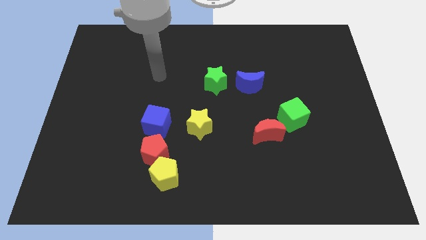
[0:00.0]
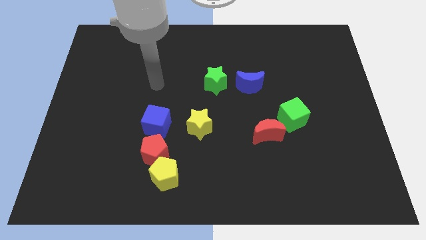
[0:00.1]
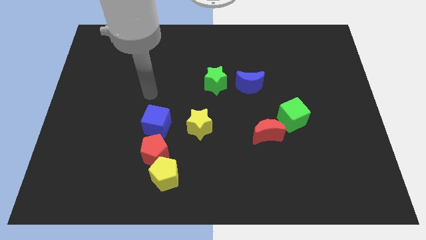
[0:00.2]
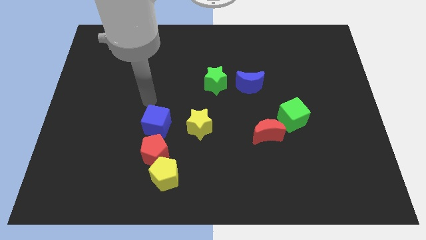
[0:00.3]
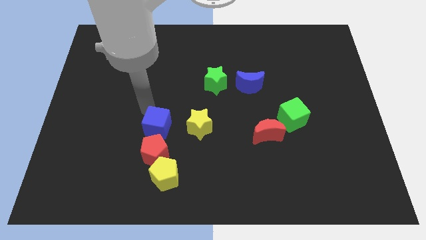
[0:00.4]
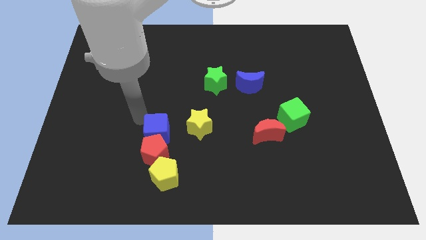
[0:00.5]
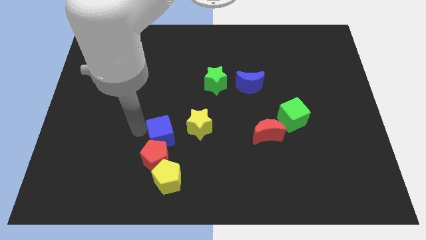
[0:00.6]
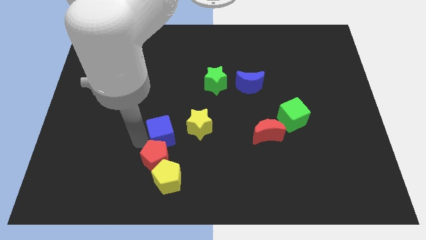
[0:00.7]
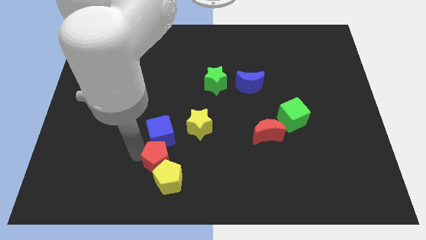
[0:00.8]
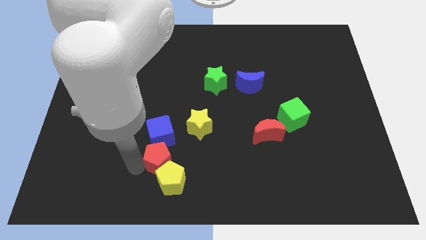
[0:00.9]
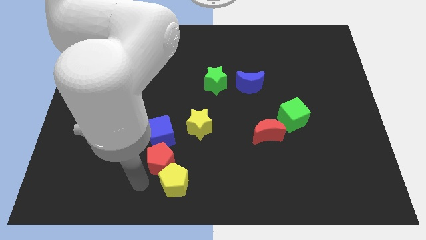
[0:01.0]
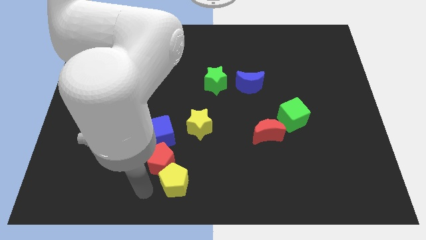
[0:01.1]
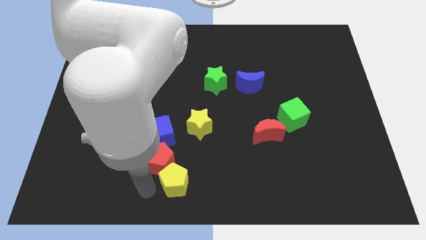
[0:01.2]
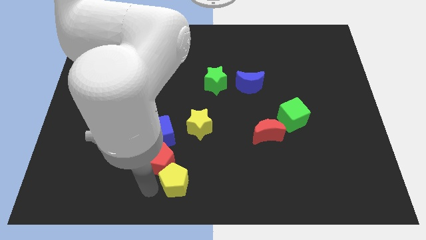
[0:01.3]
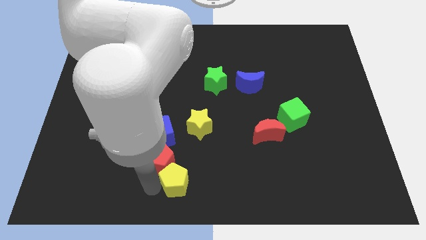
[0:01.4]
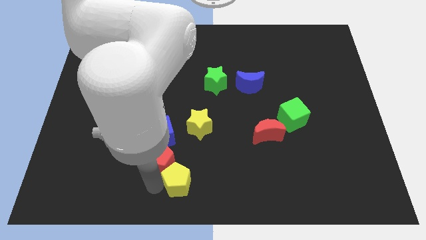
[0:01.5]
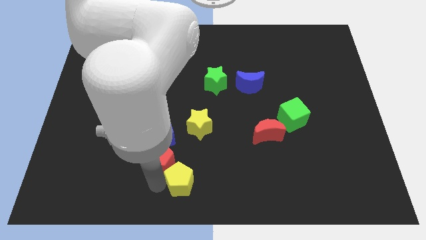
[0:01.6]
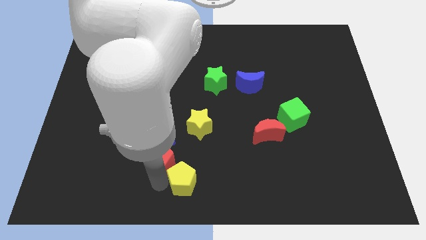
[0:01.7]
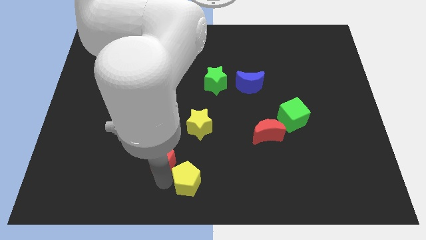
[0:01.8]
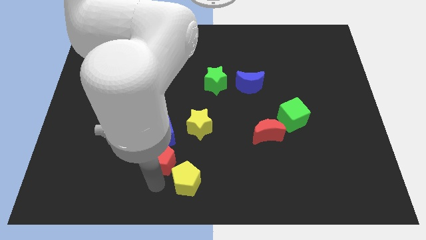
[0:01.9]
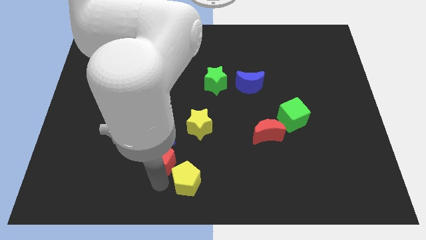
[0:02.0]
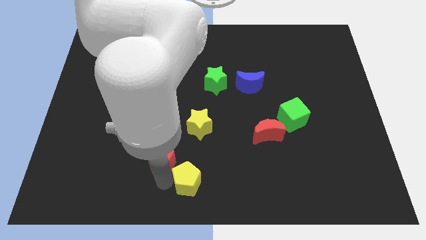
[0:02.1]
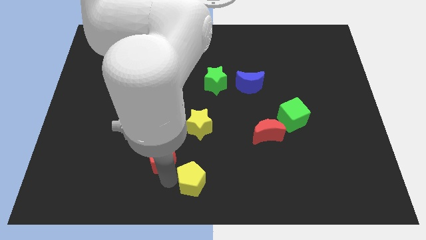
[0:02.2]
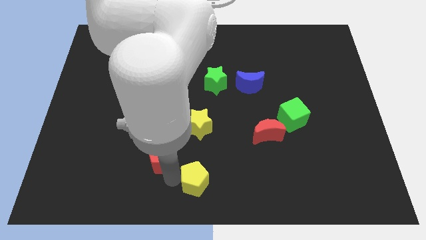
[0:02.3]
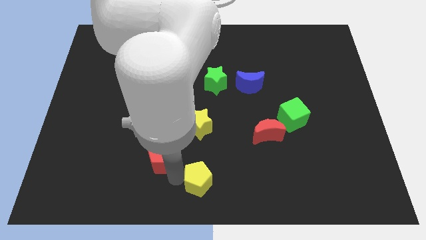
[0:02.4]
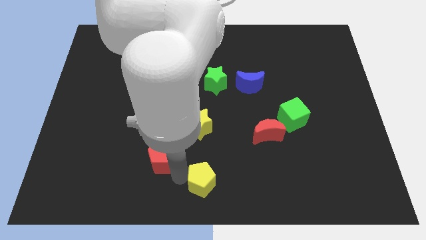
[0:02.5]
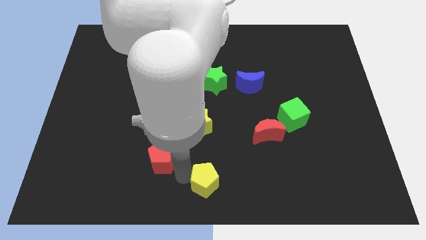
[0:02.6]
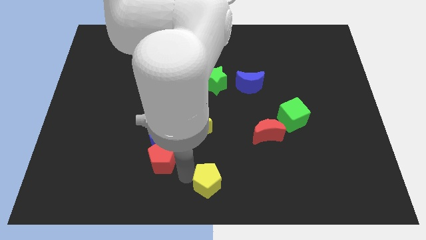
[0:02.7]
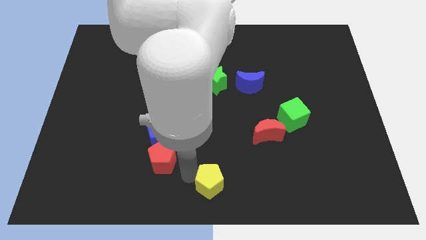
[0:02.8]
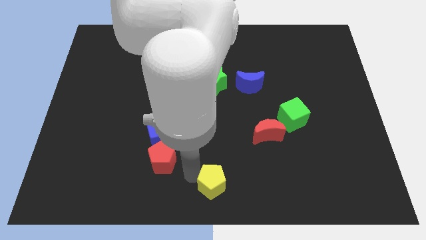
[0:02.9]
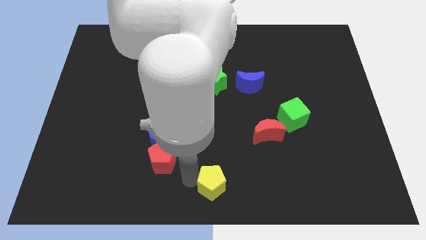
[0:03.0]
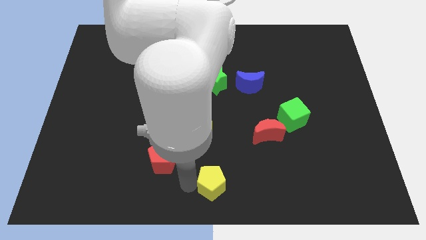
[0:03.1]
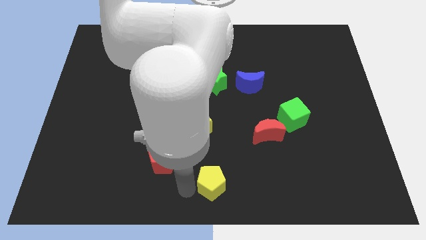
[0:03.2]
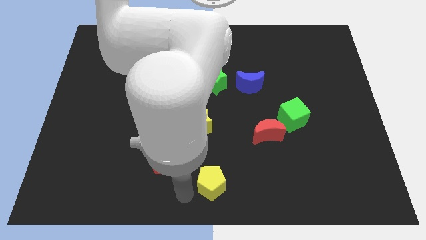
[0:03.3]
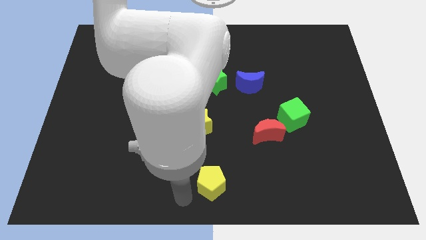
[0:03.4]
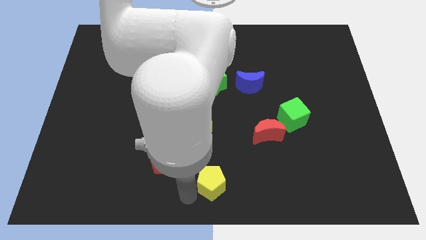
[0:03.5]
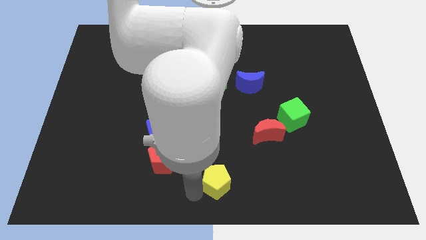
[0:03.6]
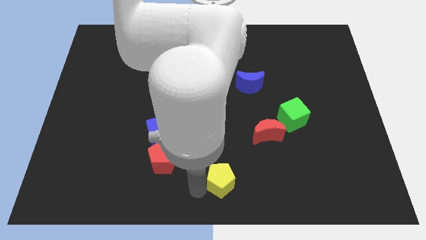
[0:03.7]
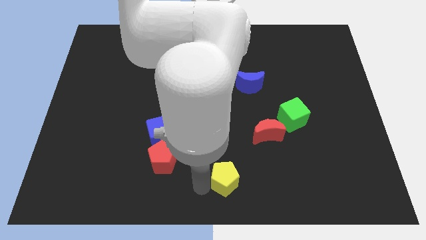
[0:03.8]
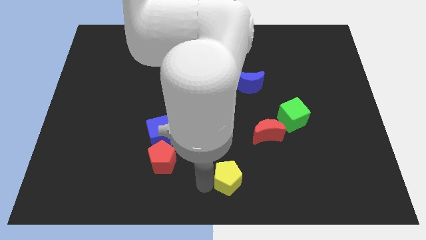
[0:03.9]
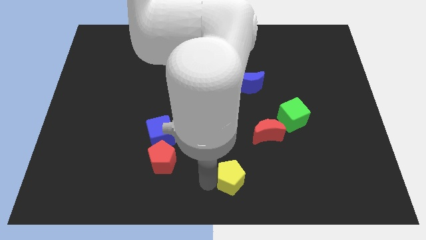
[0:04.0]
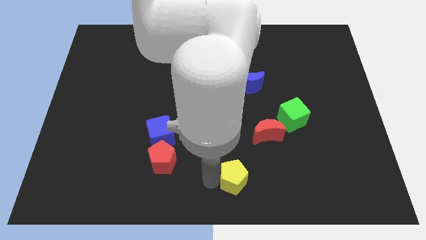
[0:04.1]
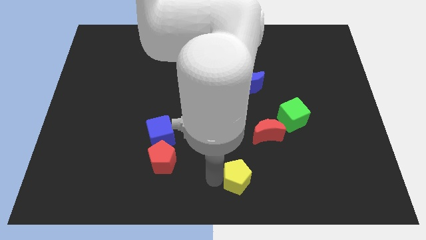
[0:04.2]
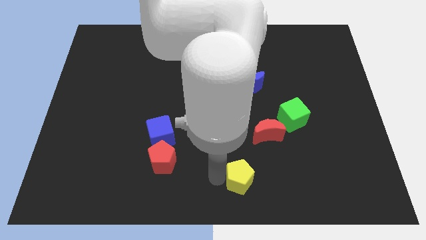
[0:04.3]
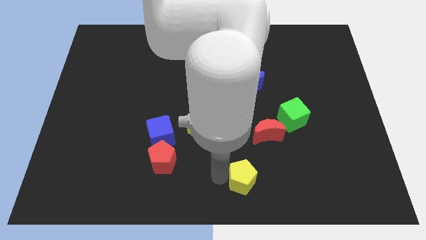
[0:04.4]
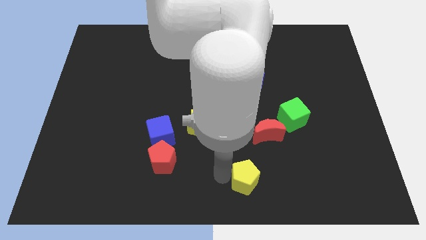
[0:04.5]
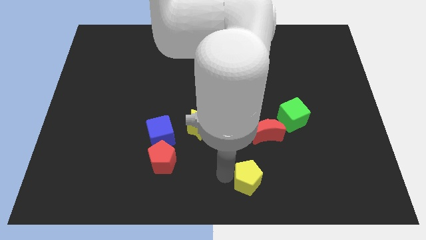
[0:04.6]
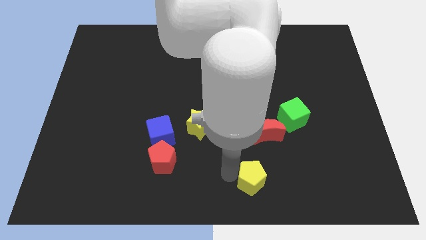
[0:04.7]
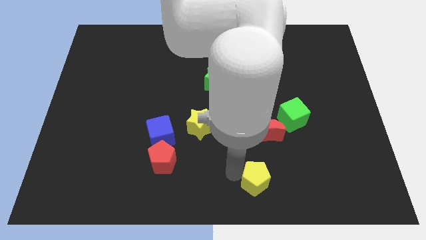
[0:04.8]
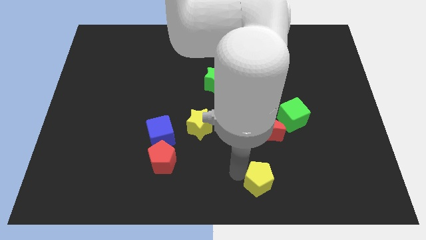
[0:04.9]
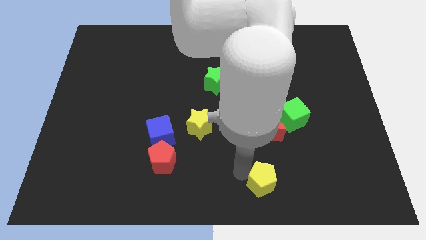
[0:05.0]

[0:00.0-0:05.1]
move the yellow pentagon to the right

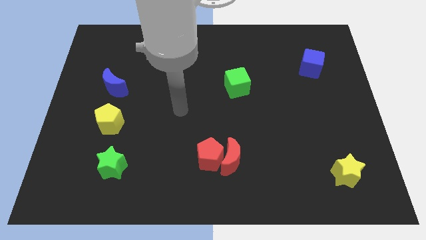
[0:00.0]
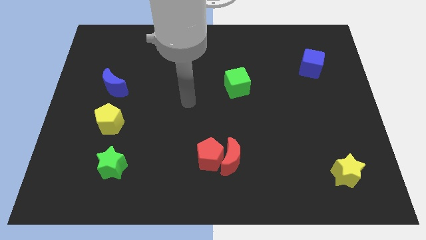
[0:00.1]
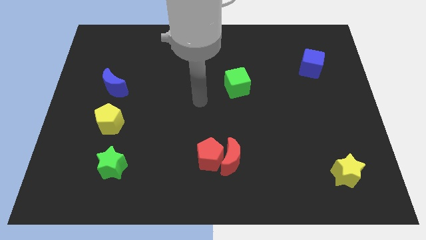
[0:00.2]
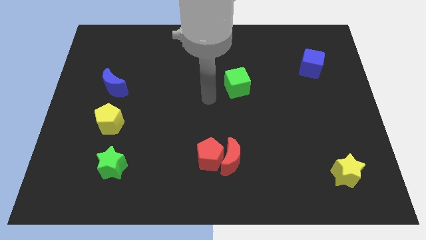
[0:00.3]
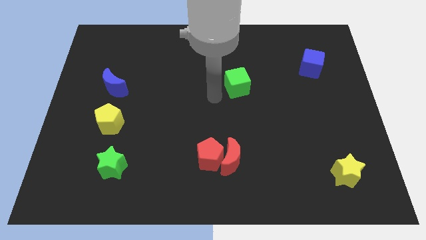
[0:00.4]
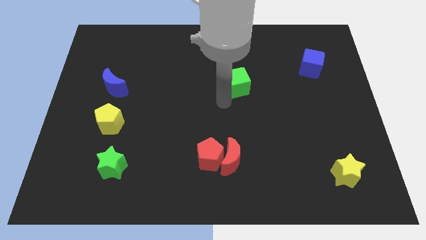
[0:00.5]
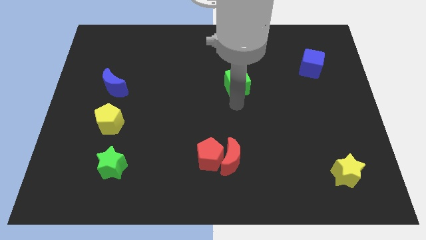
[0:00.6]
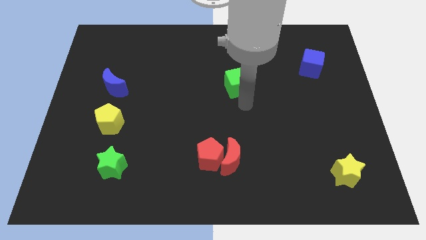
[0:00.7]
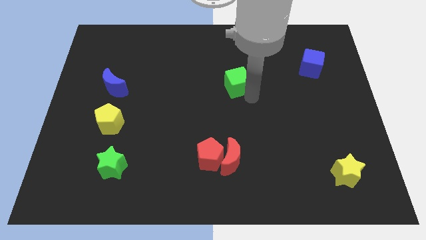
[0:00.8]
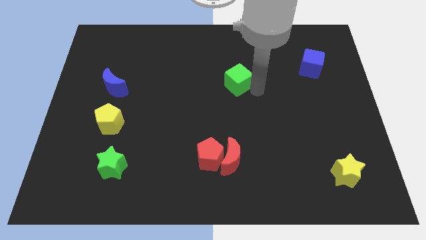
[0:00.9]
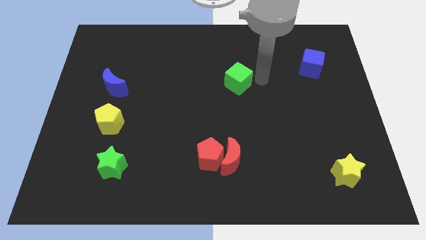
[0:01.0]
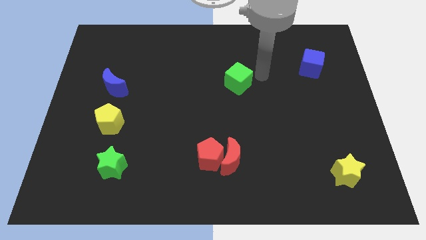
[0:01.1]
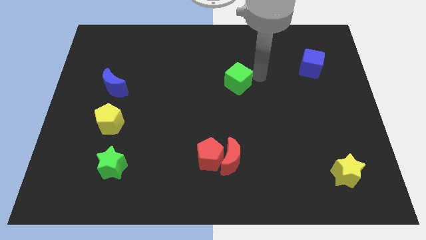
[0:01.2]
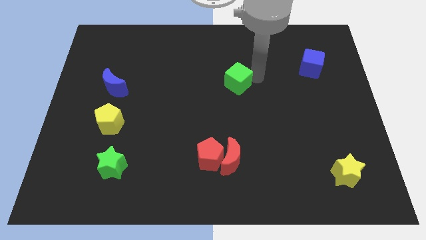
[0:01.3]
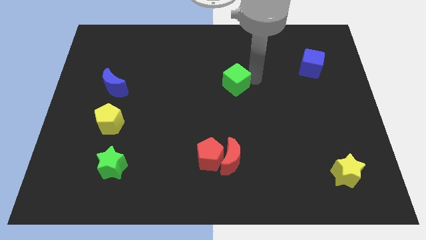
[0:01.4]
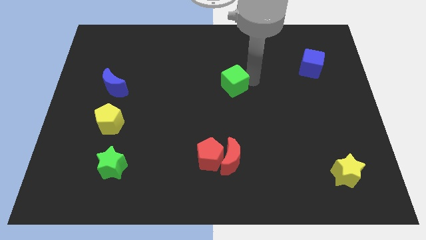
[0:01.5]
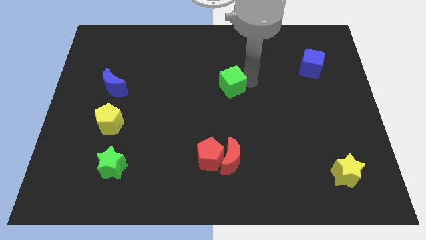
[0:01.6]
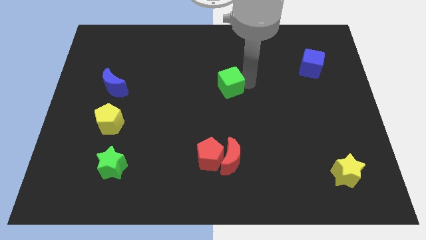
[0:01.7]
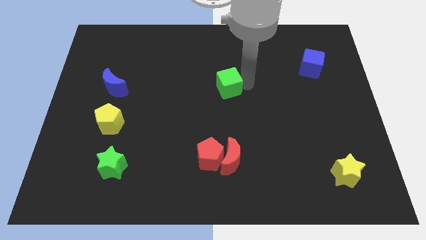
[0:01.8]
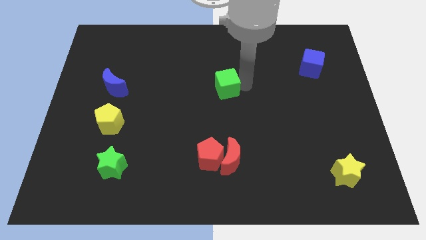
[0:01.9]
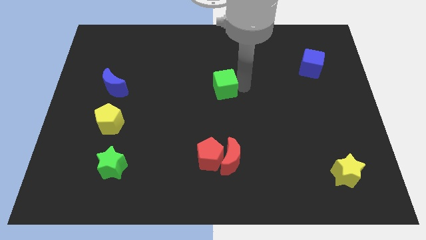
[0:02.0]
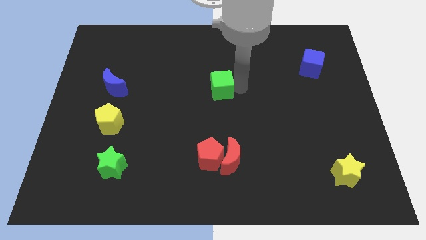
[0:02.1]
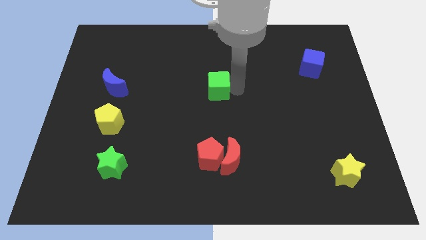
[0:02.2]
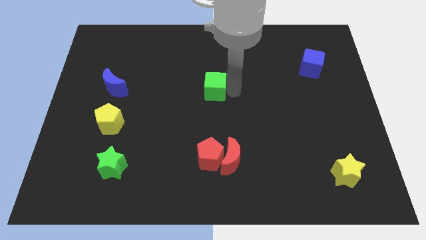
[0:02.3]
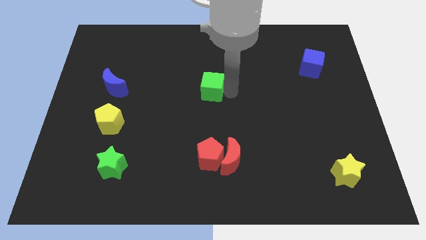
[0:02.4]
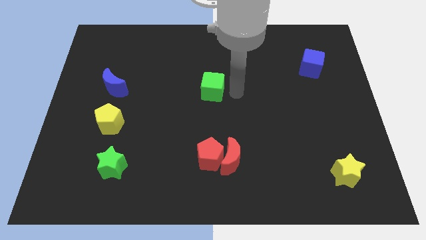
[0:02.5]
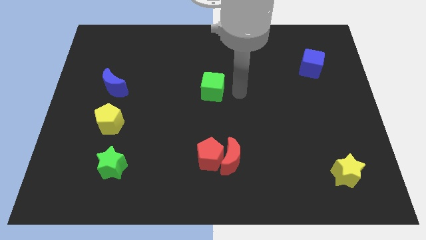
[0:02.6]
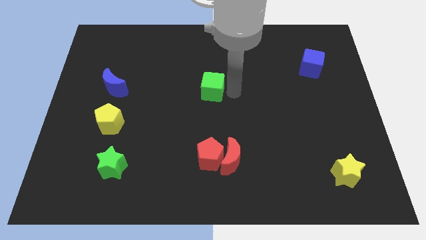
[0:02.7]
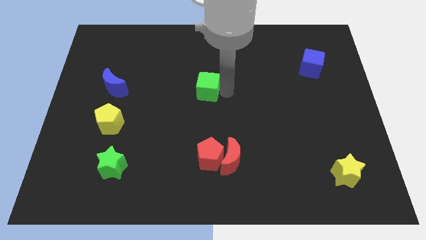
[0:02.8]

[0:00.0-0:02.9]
slide the green cube slightly left

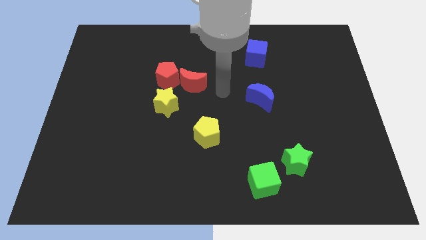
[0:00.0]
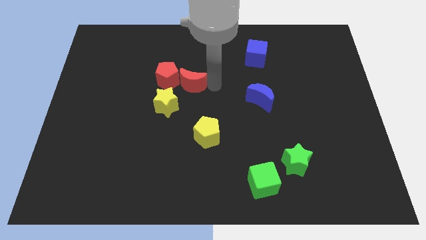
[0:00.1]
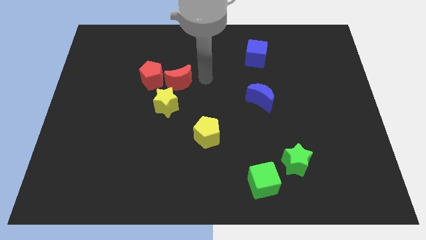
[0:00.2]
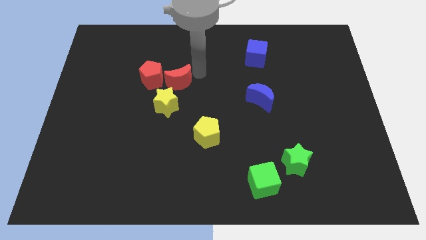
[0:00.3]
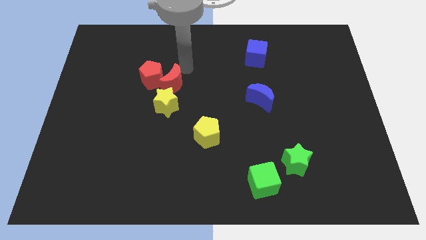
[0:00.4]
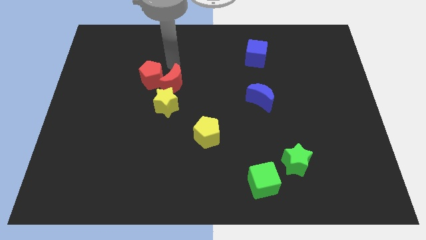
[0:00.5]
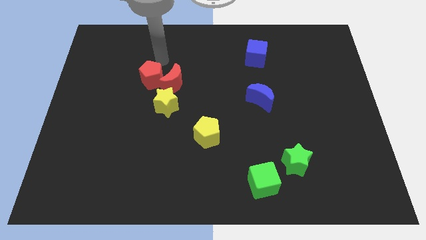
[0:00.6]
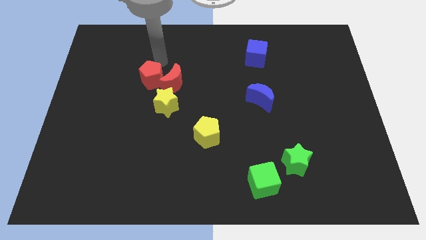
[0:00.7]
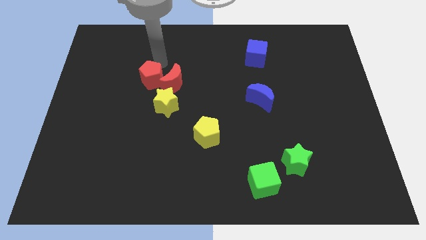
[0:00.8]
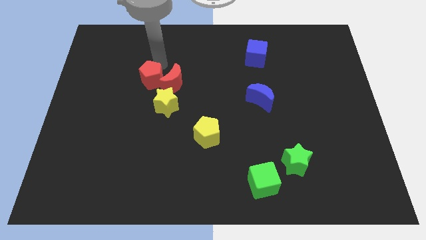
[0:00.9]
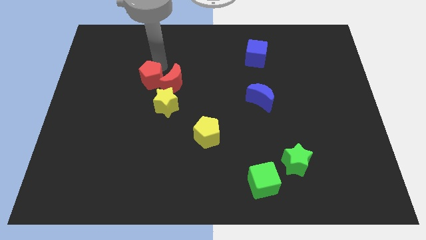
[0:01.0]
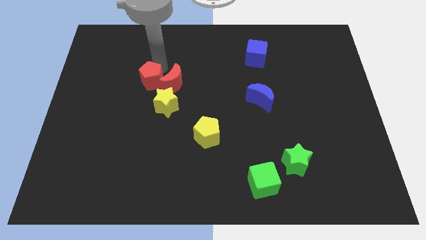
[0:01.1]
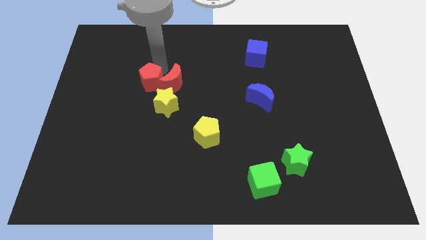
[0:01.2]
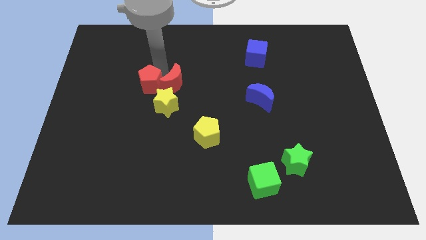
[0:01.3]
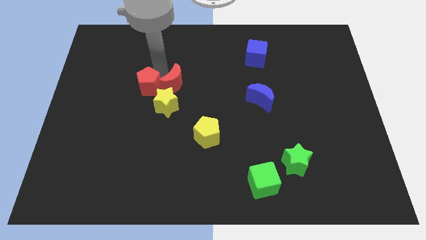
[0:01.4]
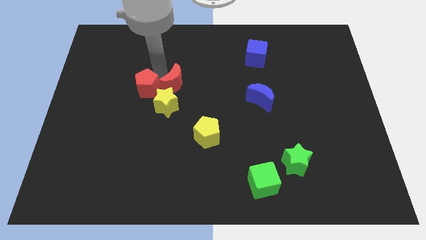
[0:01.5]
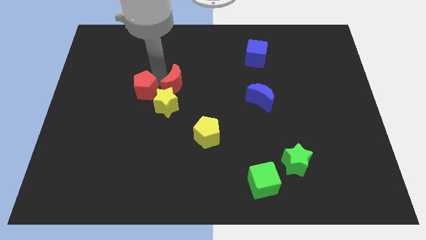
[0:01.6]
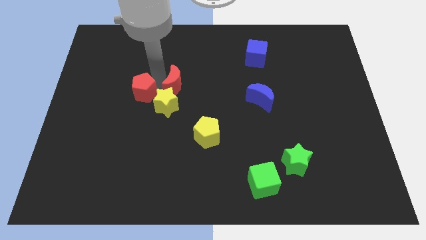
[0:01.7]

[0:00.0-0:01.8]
move the red pentagon diagonally downwards and to the left somewhat
